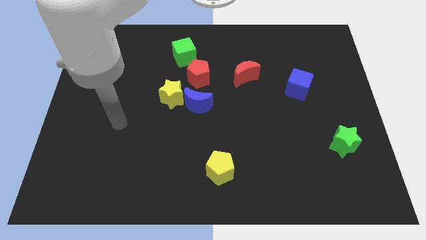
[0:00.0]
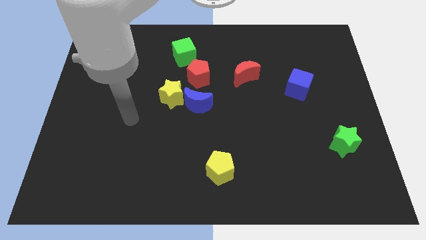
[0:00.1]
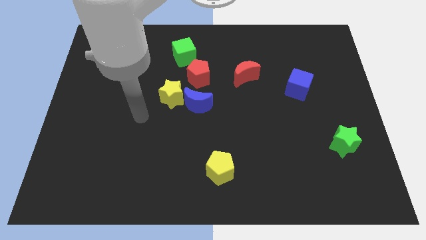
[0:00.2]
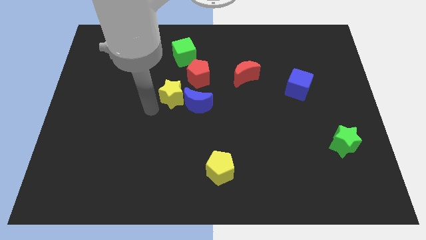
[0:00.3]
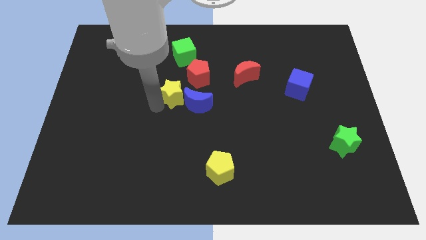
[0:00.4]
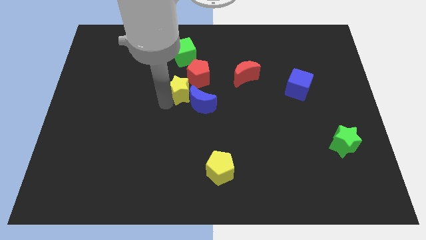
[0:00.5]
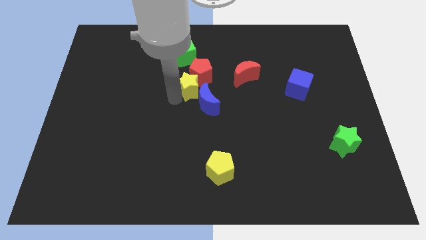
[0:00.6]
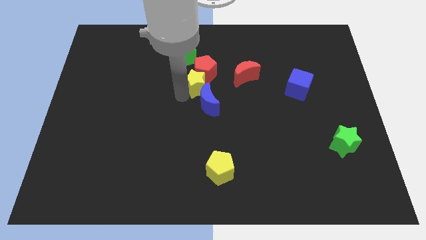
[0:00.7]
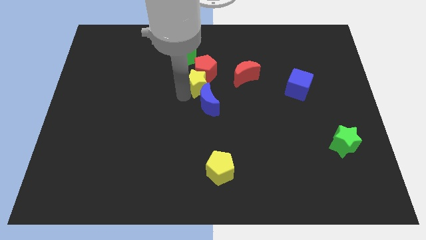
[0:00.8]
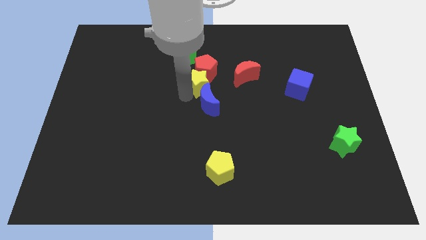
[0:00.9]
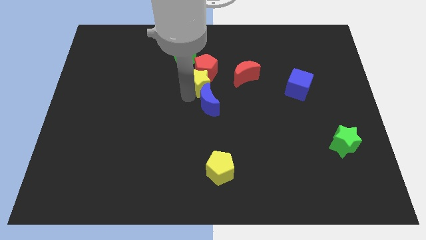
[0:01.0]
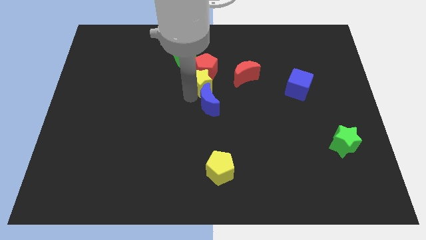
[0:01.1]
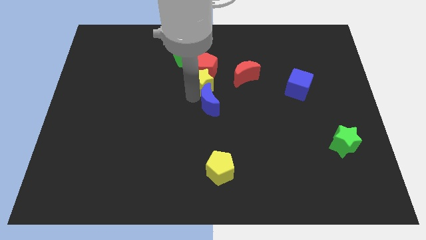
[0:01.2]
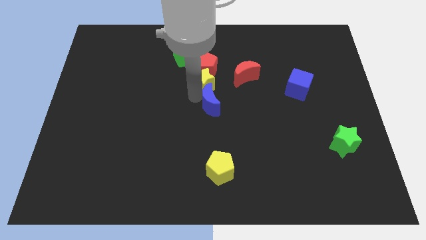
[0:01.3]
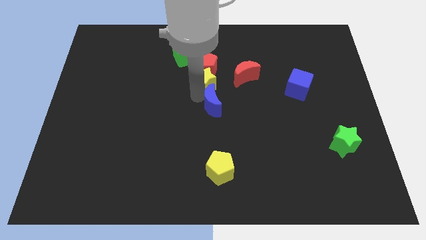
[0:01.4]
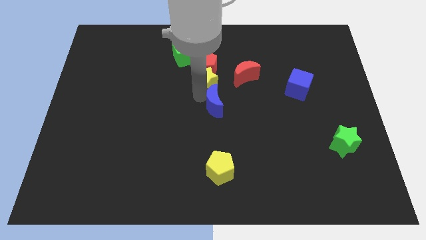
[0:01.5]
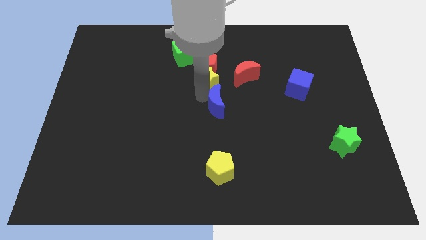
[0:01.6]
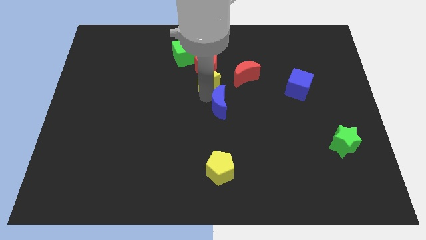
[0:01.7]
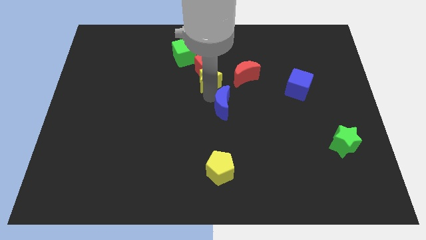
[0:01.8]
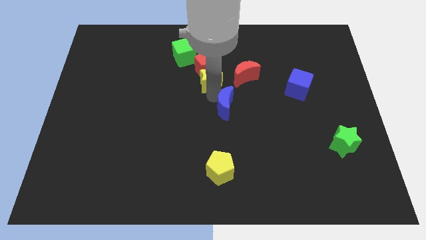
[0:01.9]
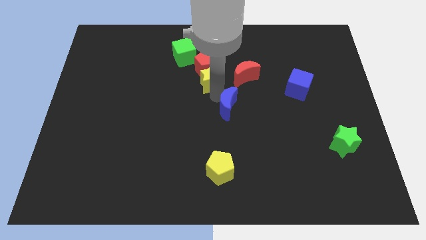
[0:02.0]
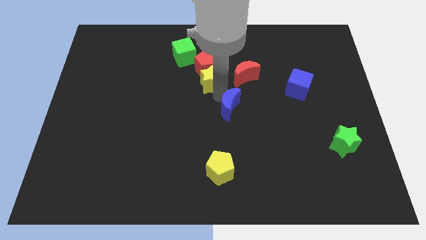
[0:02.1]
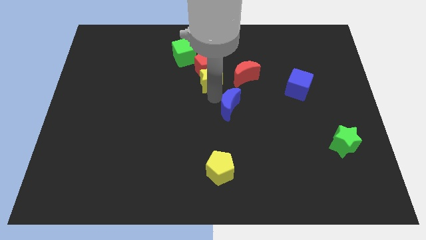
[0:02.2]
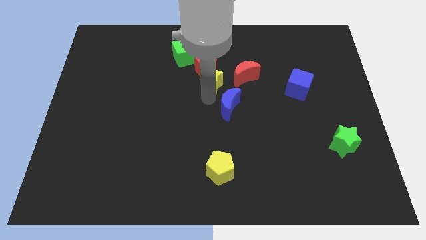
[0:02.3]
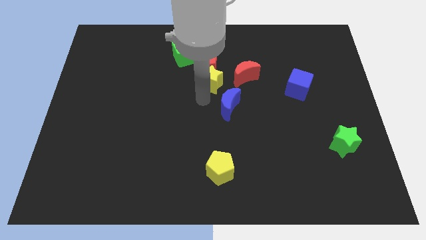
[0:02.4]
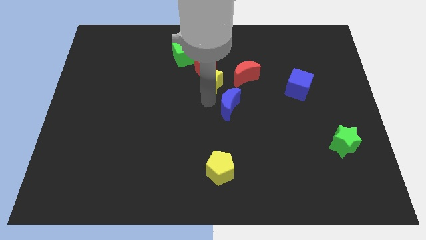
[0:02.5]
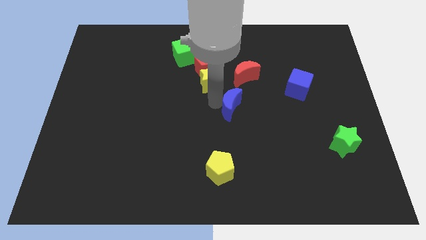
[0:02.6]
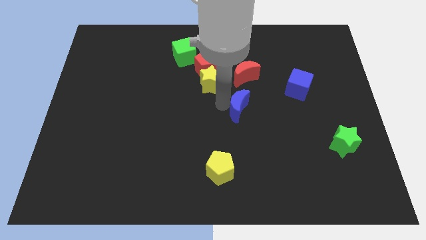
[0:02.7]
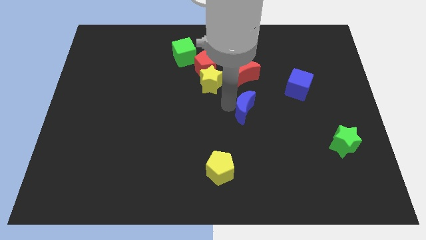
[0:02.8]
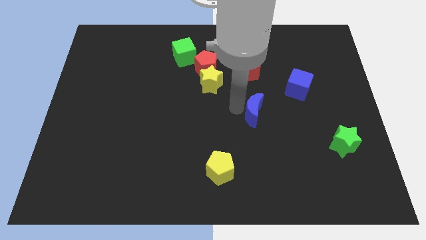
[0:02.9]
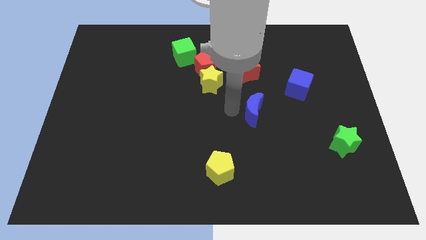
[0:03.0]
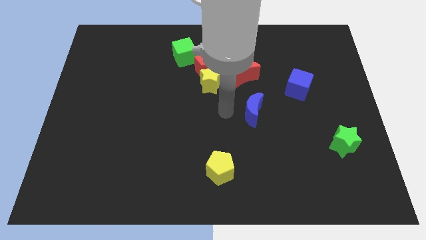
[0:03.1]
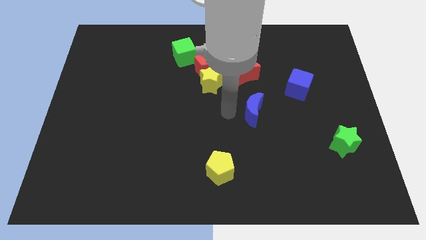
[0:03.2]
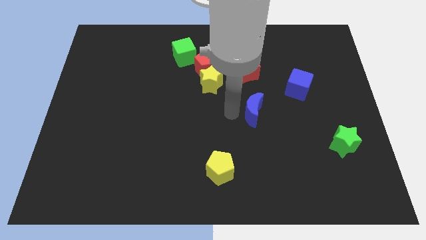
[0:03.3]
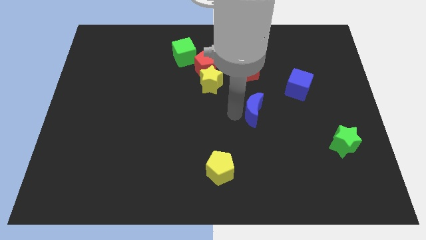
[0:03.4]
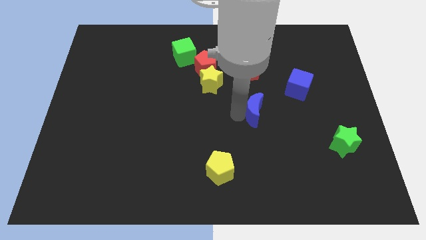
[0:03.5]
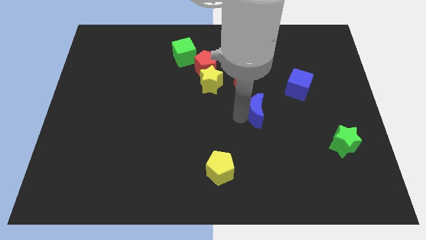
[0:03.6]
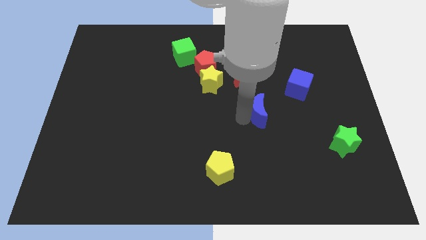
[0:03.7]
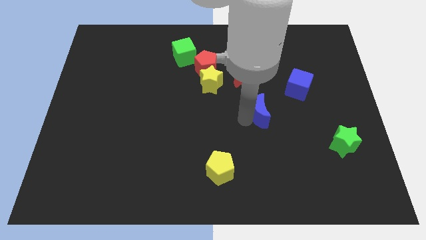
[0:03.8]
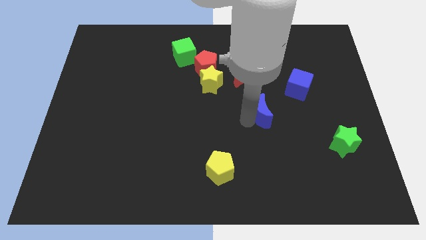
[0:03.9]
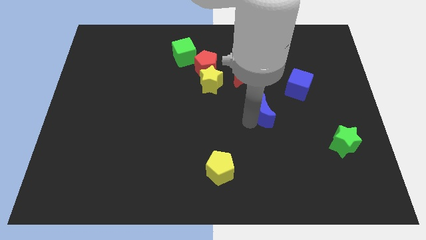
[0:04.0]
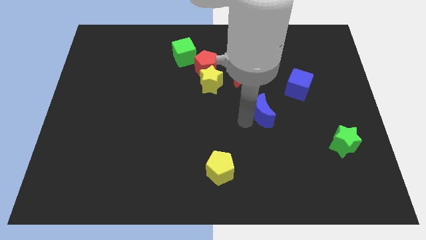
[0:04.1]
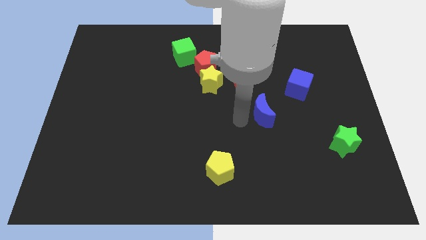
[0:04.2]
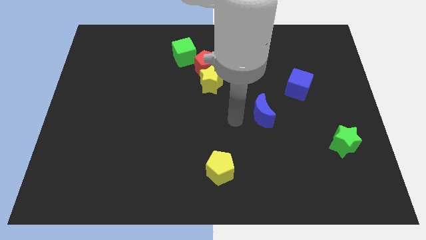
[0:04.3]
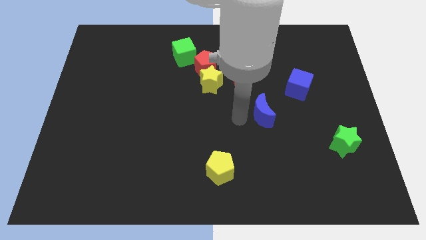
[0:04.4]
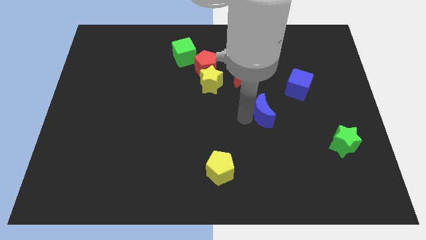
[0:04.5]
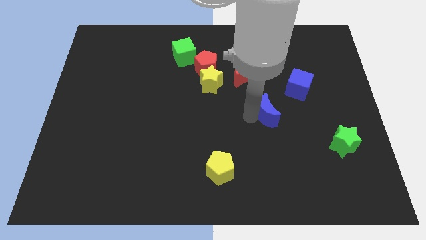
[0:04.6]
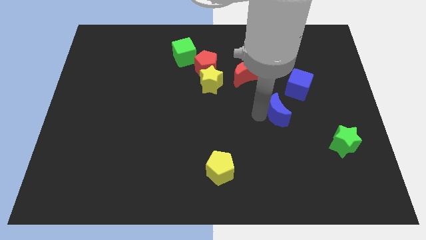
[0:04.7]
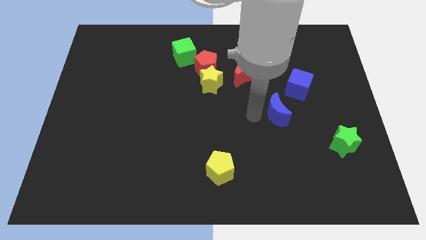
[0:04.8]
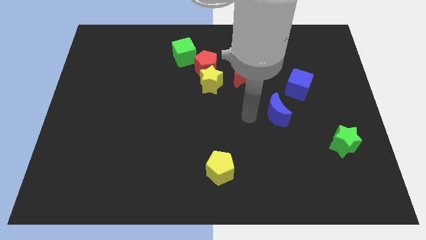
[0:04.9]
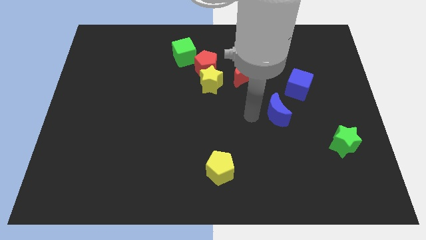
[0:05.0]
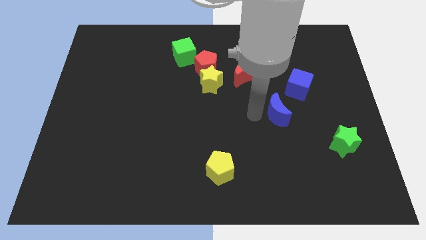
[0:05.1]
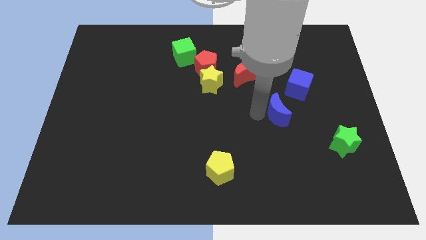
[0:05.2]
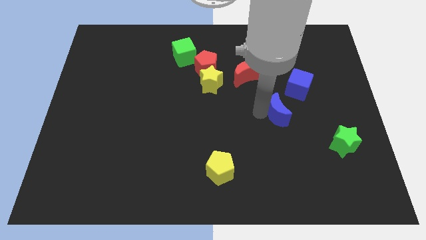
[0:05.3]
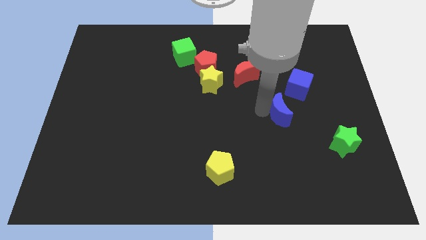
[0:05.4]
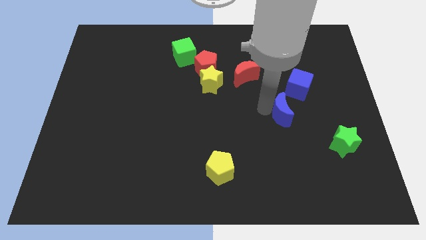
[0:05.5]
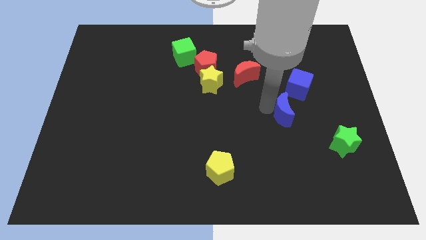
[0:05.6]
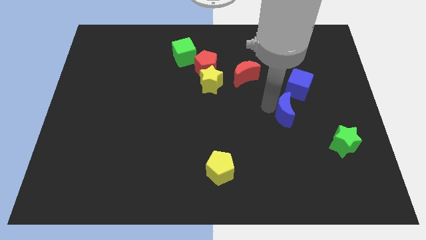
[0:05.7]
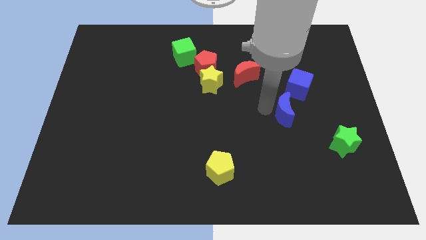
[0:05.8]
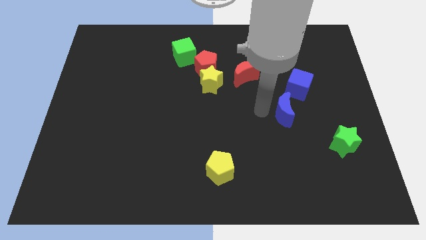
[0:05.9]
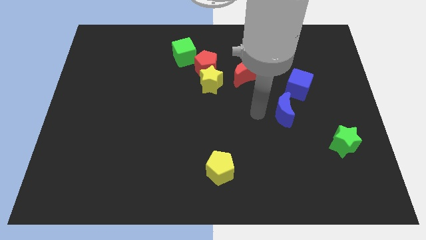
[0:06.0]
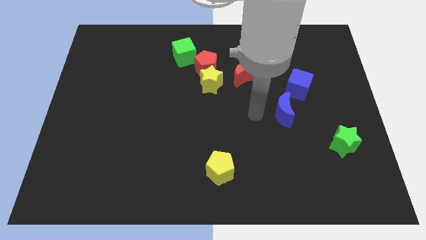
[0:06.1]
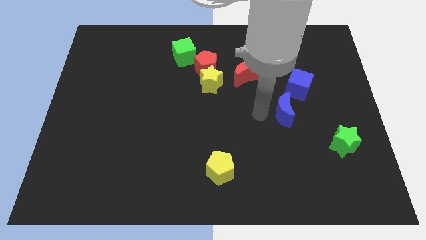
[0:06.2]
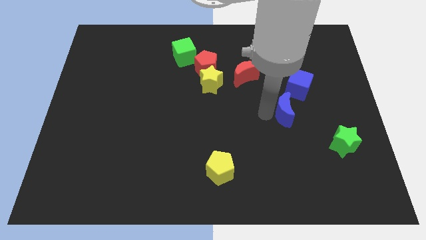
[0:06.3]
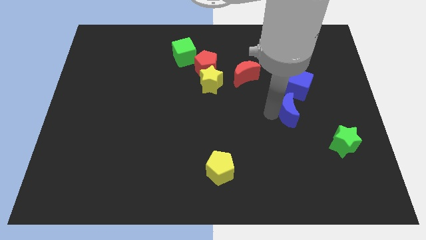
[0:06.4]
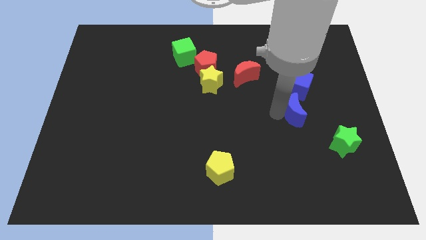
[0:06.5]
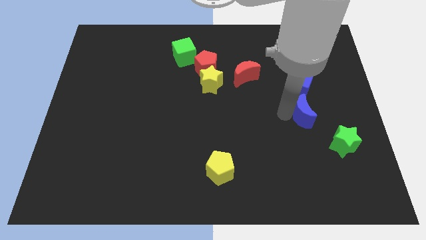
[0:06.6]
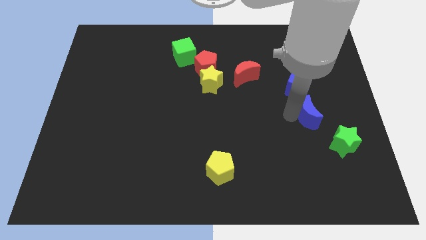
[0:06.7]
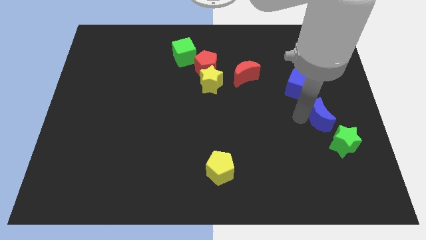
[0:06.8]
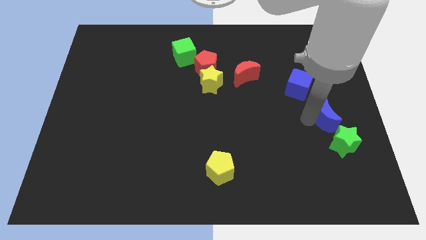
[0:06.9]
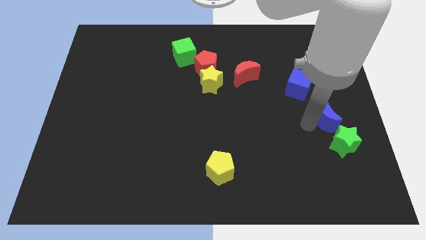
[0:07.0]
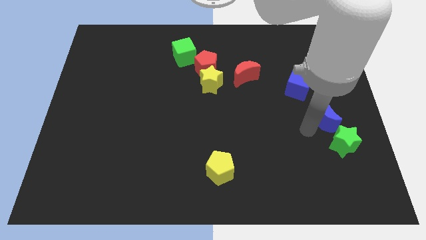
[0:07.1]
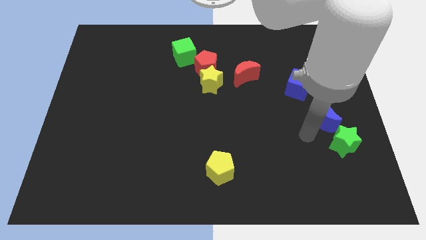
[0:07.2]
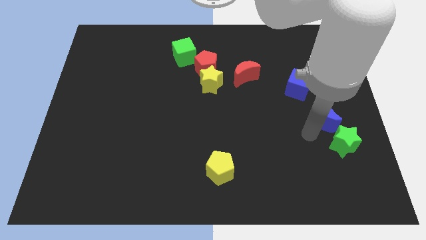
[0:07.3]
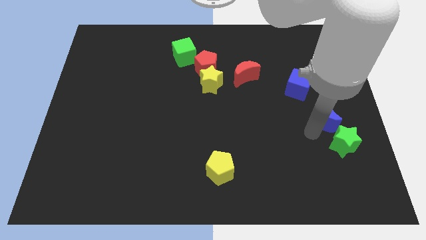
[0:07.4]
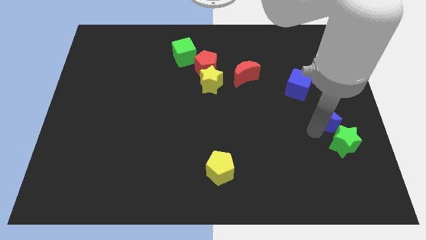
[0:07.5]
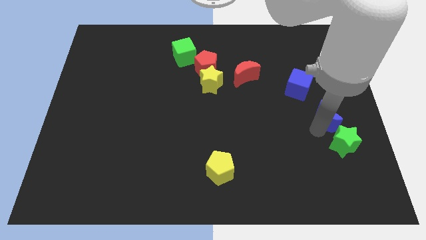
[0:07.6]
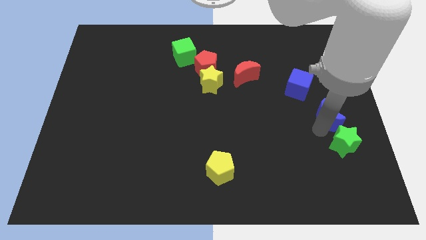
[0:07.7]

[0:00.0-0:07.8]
put the blue moon to the right side
